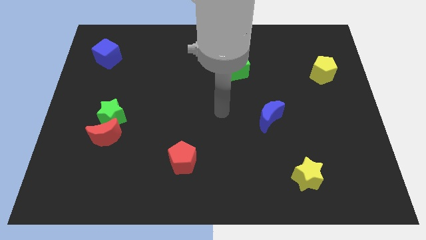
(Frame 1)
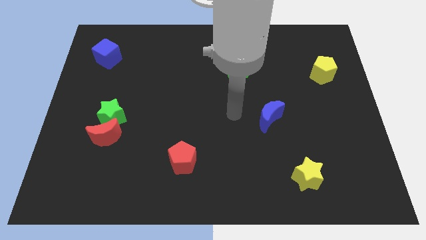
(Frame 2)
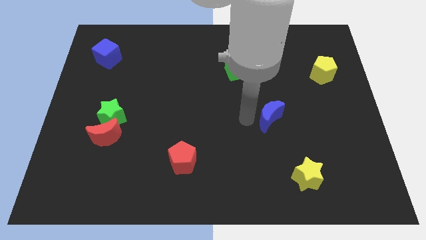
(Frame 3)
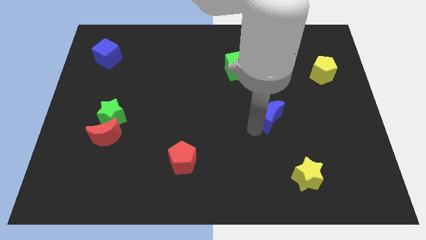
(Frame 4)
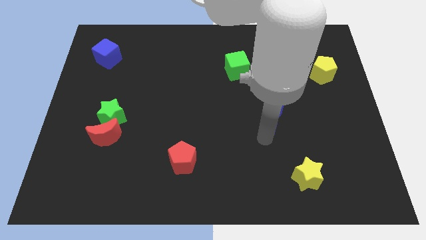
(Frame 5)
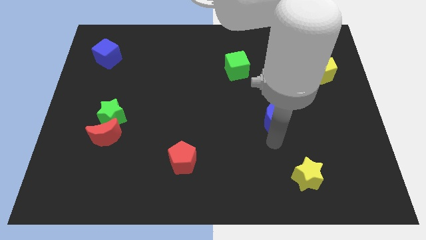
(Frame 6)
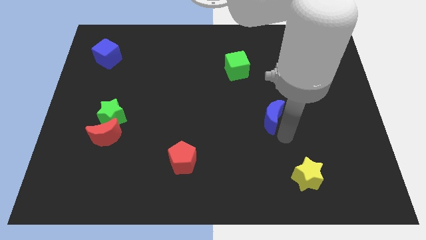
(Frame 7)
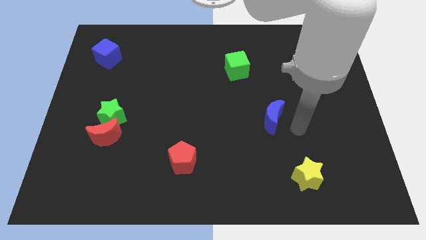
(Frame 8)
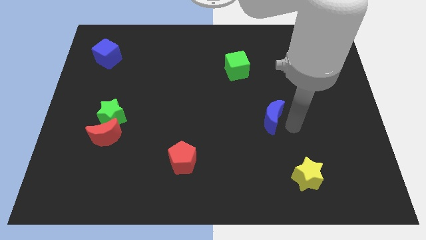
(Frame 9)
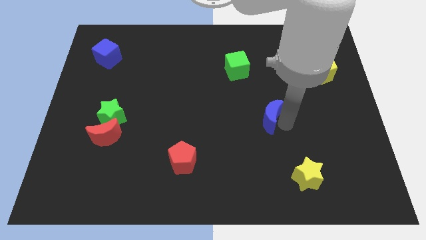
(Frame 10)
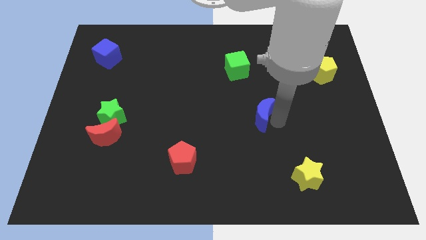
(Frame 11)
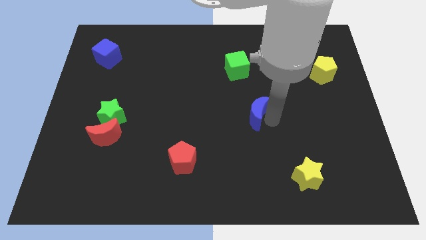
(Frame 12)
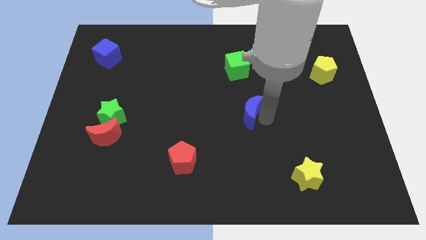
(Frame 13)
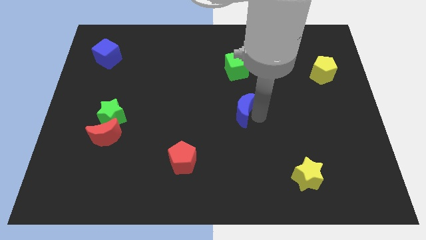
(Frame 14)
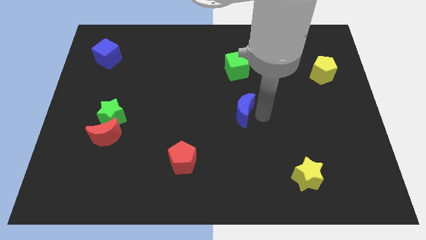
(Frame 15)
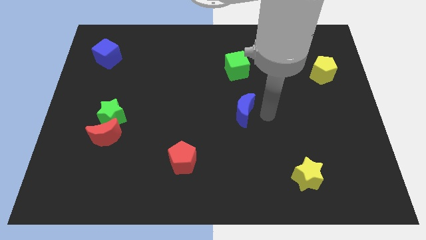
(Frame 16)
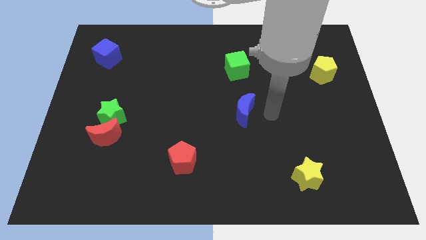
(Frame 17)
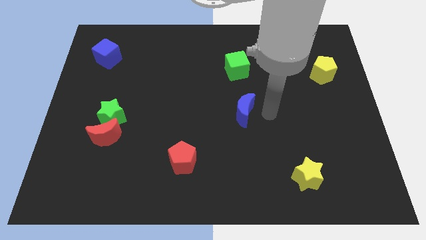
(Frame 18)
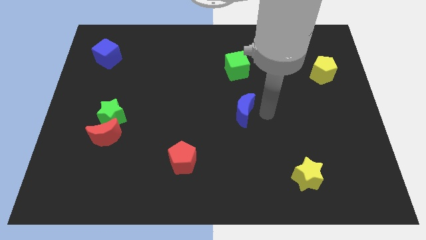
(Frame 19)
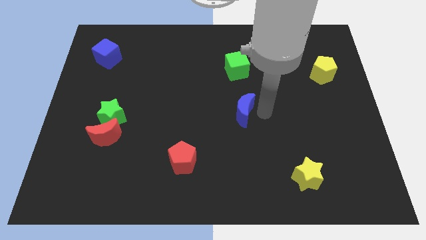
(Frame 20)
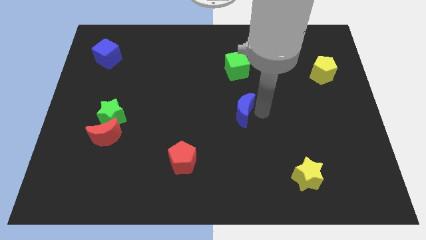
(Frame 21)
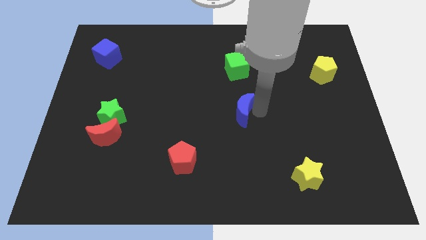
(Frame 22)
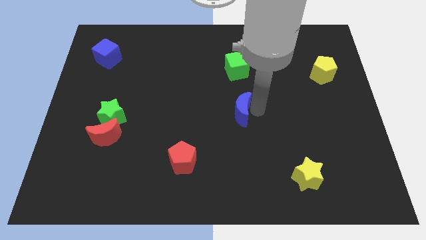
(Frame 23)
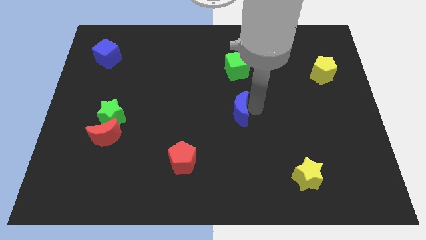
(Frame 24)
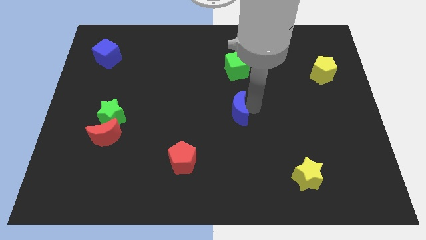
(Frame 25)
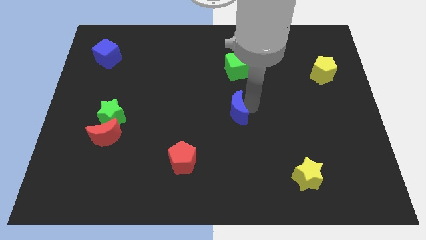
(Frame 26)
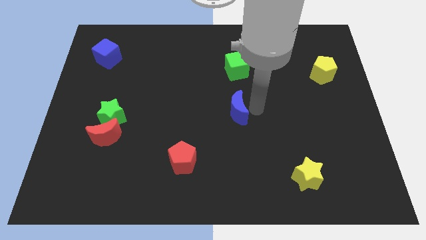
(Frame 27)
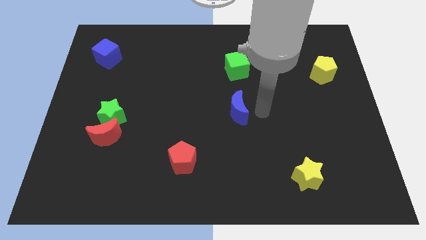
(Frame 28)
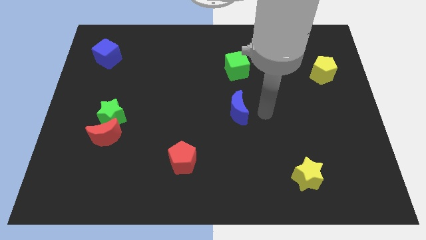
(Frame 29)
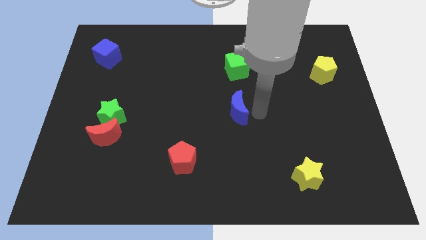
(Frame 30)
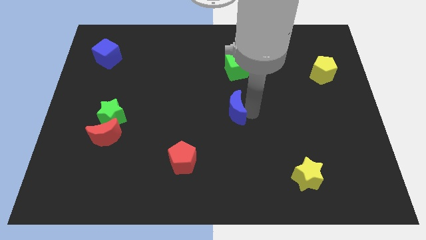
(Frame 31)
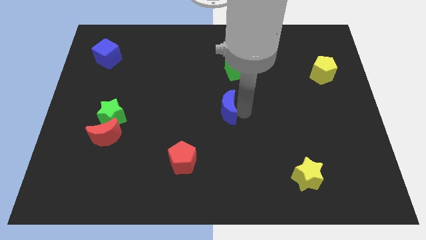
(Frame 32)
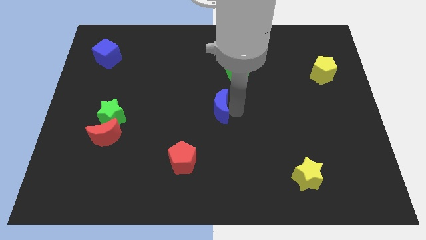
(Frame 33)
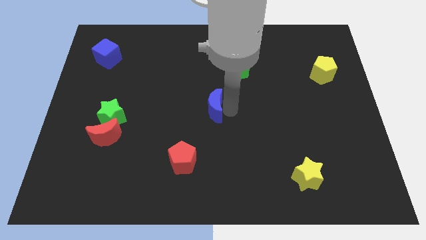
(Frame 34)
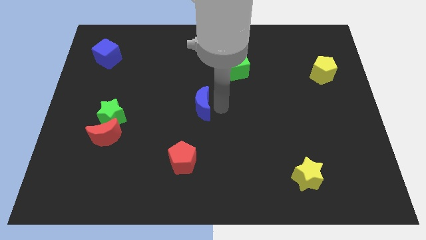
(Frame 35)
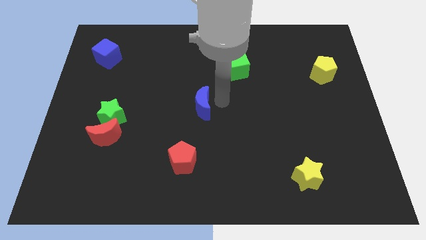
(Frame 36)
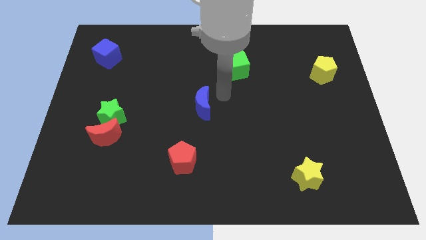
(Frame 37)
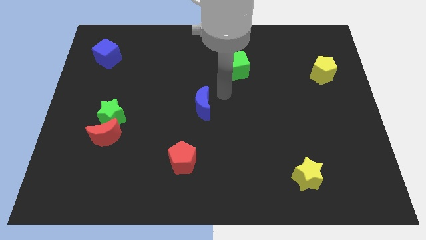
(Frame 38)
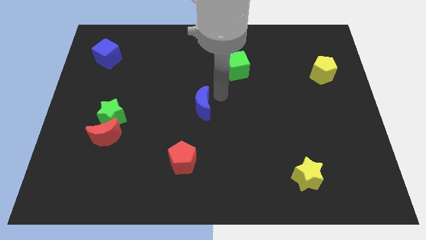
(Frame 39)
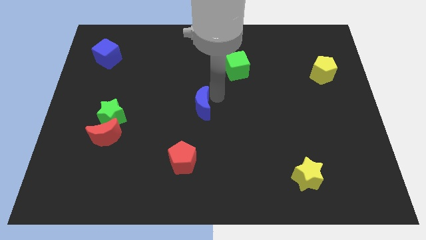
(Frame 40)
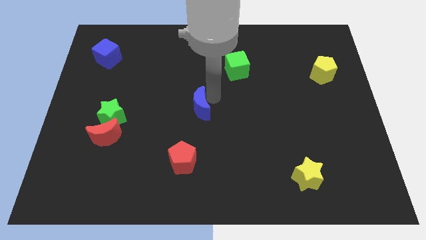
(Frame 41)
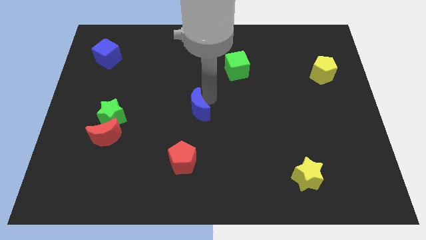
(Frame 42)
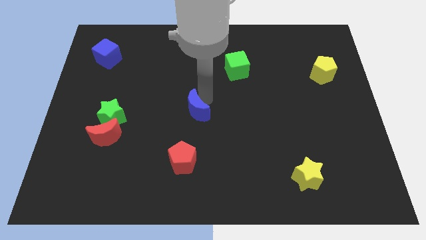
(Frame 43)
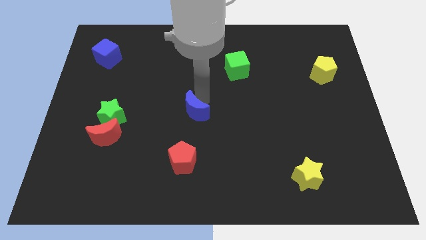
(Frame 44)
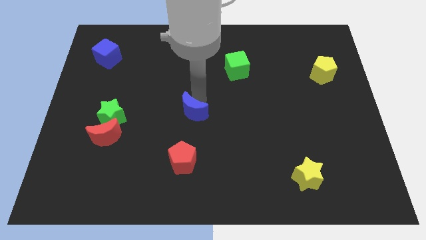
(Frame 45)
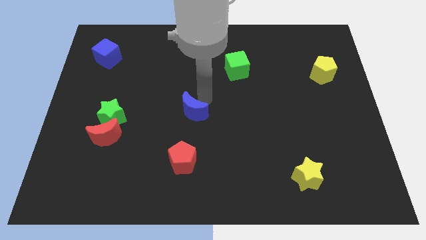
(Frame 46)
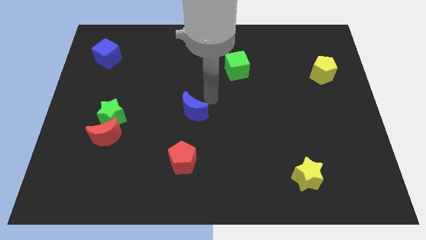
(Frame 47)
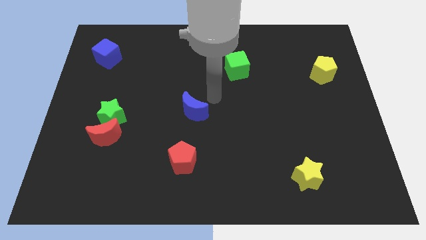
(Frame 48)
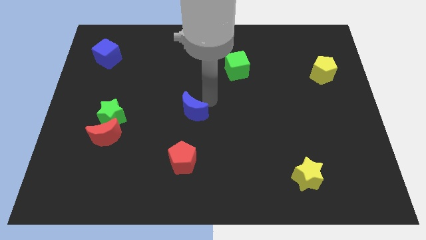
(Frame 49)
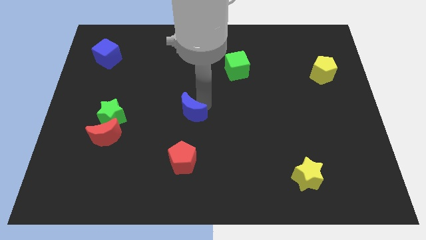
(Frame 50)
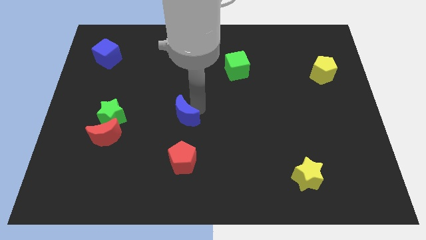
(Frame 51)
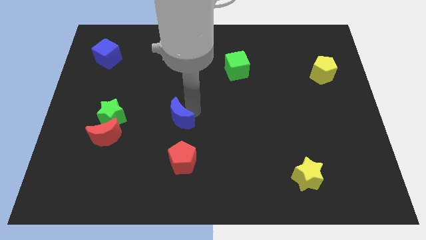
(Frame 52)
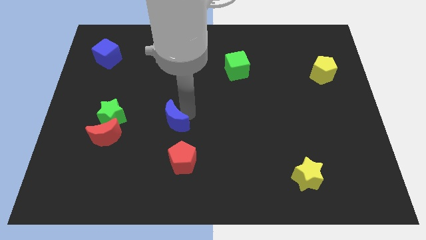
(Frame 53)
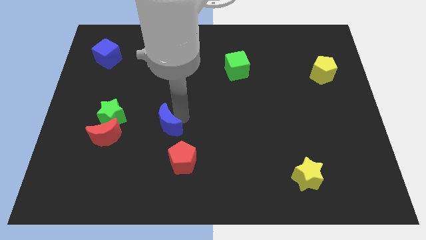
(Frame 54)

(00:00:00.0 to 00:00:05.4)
move the blue moon just right of the red moon

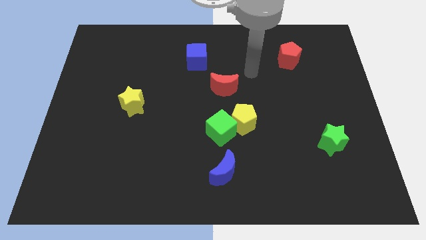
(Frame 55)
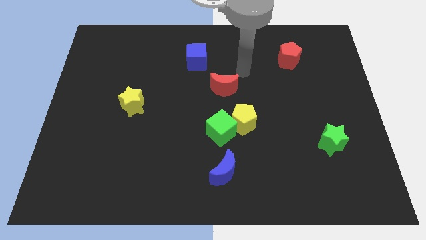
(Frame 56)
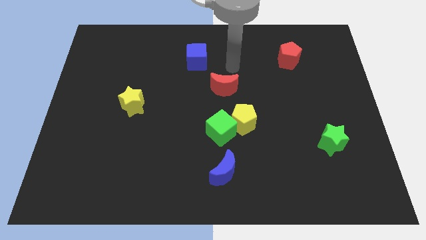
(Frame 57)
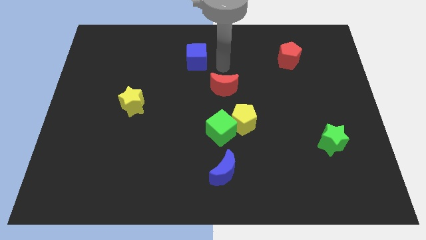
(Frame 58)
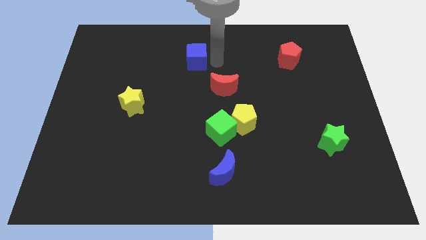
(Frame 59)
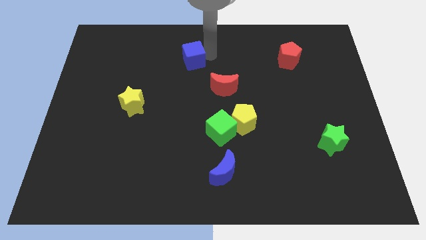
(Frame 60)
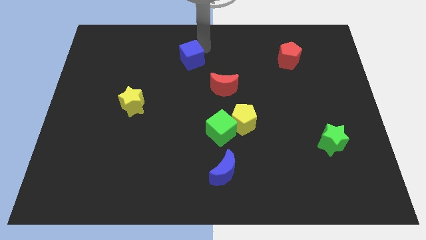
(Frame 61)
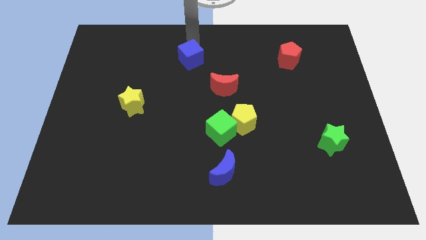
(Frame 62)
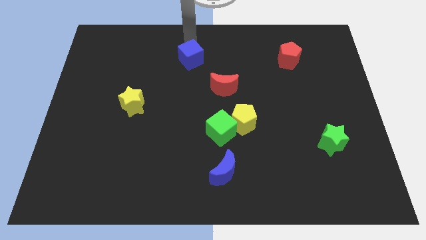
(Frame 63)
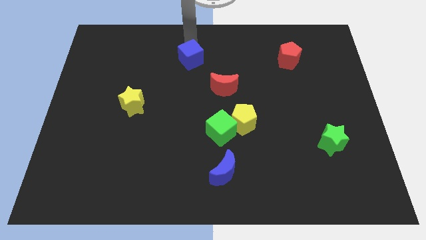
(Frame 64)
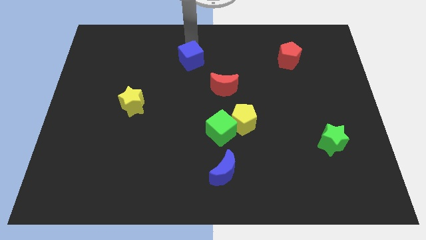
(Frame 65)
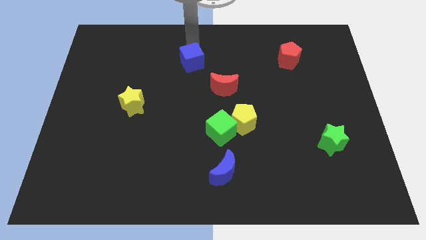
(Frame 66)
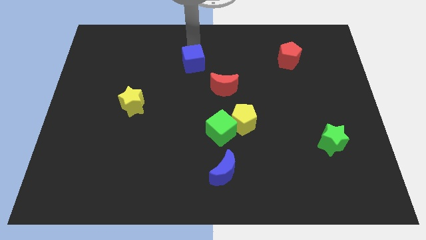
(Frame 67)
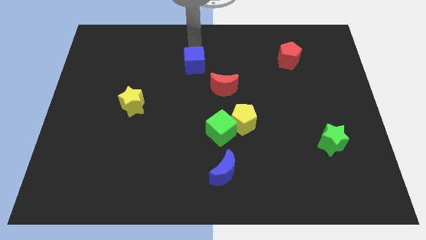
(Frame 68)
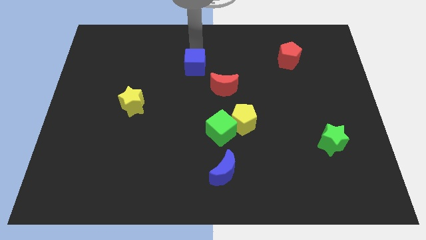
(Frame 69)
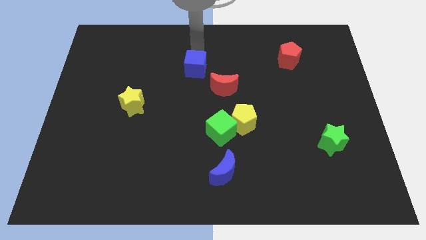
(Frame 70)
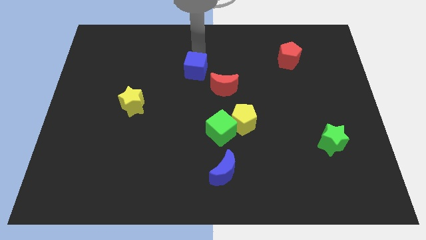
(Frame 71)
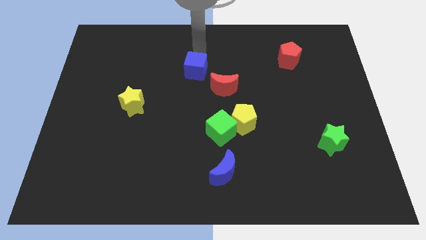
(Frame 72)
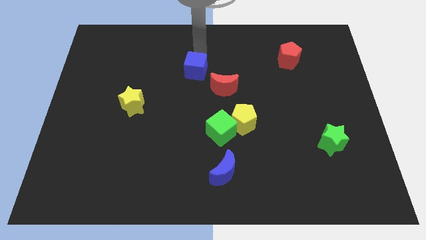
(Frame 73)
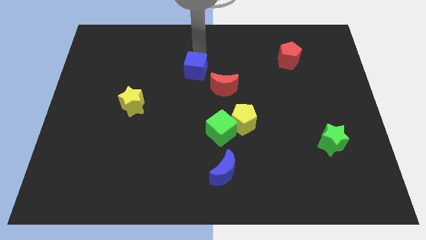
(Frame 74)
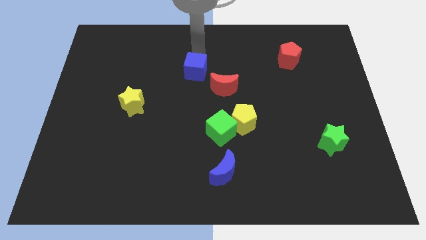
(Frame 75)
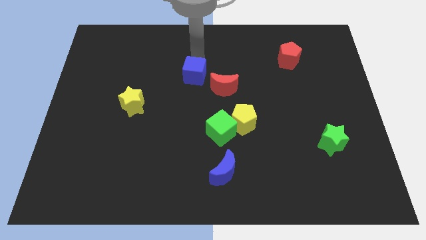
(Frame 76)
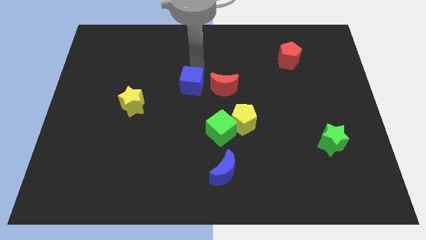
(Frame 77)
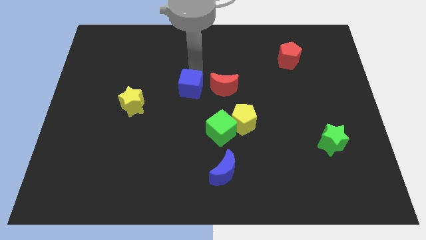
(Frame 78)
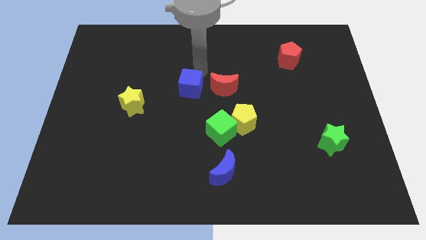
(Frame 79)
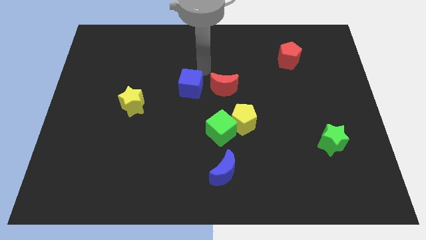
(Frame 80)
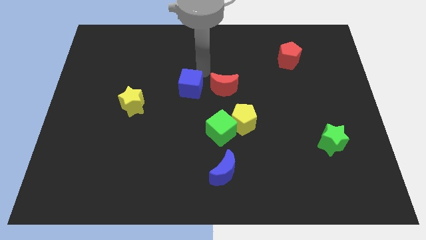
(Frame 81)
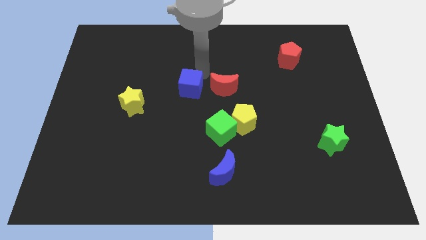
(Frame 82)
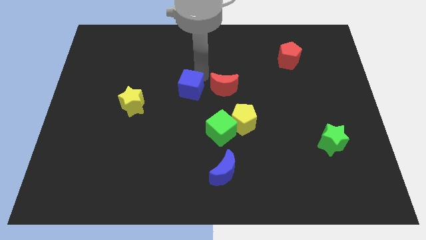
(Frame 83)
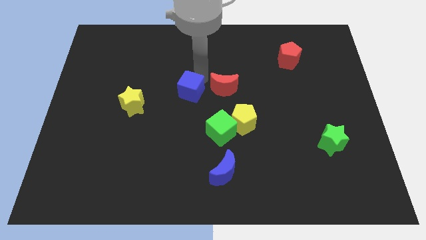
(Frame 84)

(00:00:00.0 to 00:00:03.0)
put the blue cube just right of the yellow star
